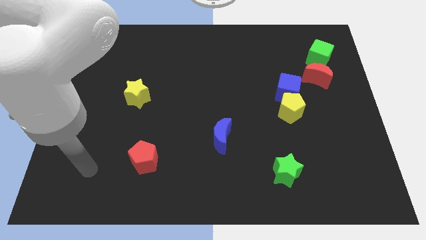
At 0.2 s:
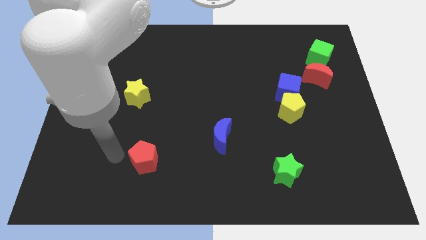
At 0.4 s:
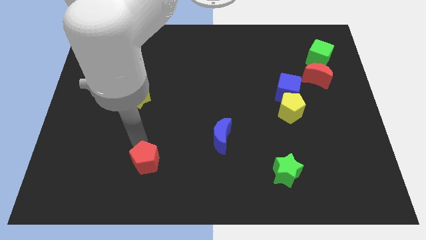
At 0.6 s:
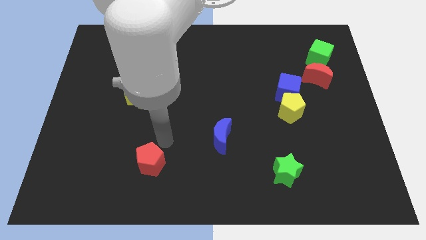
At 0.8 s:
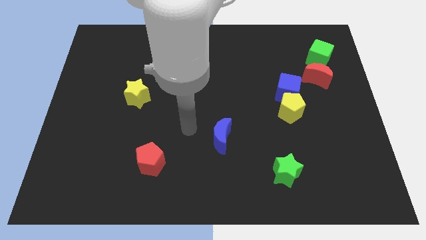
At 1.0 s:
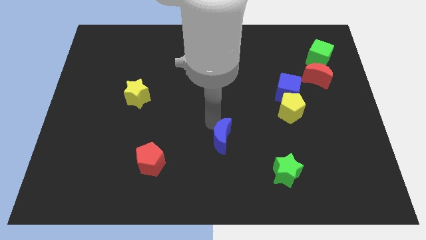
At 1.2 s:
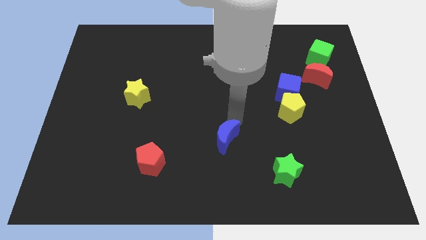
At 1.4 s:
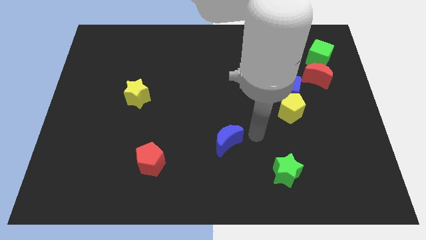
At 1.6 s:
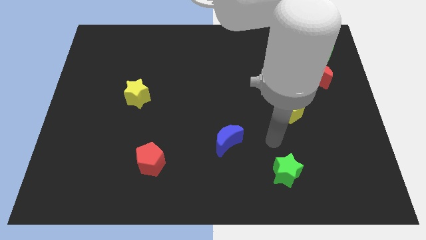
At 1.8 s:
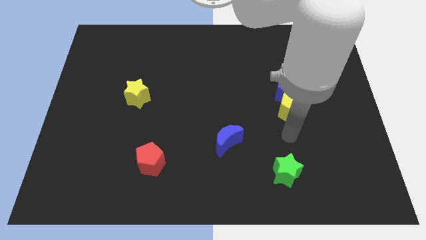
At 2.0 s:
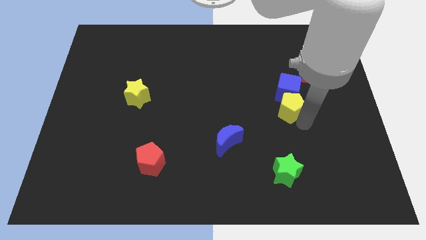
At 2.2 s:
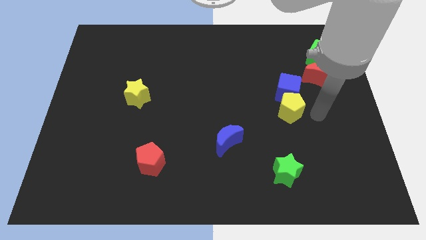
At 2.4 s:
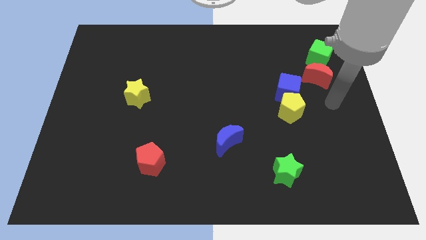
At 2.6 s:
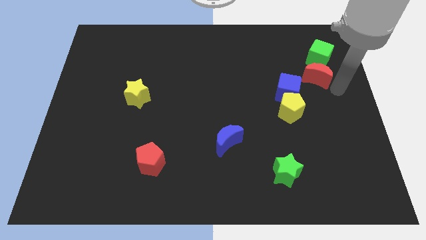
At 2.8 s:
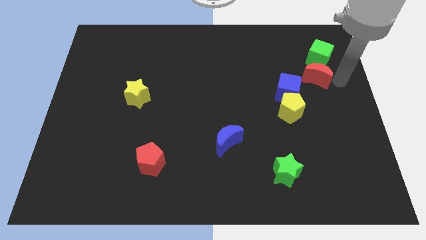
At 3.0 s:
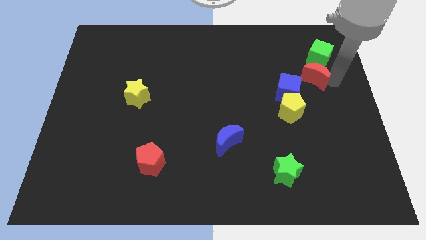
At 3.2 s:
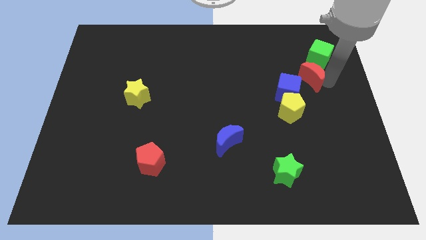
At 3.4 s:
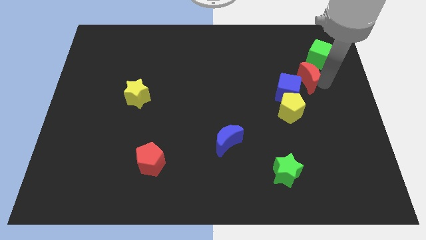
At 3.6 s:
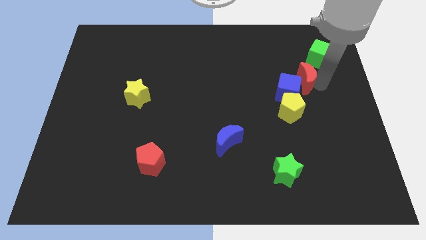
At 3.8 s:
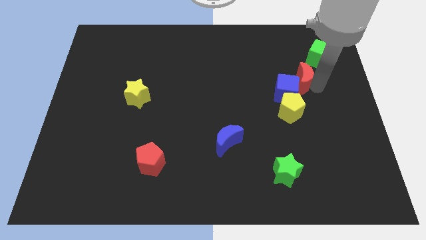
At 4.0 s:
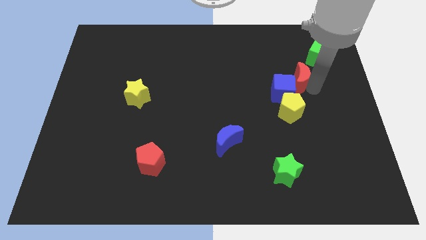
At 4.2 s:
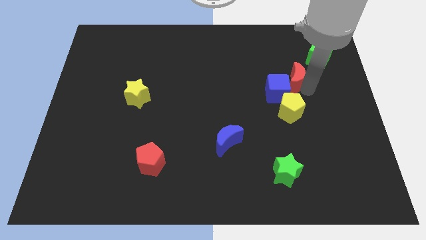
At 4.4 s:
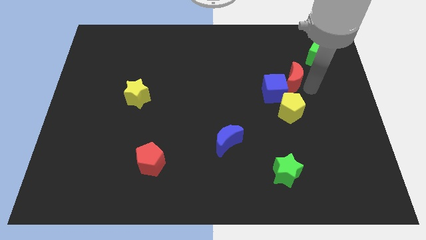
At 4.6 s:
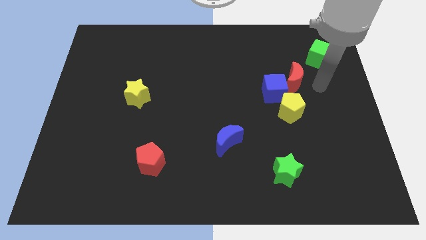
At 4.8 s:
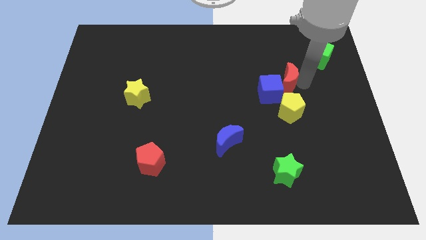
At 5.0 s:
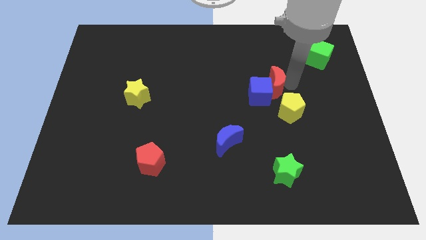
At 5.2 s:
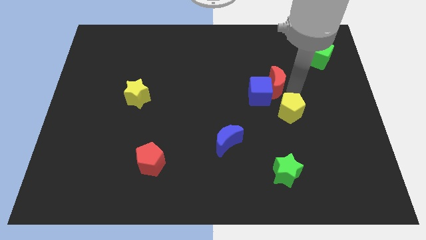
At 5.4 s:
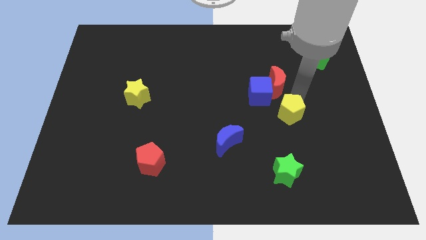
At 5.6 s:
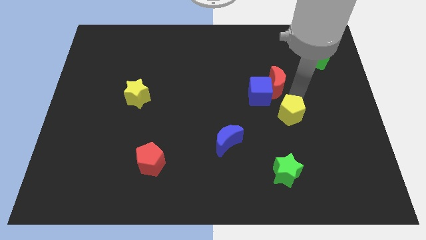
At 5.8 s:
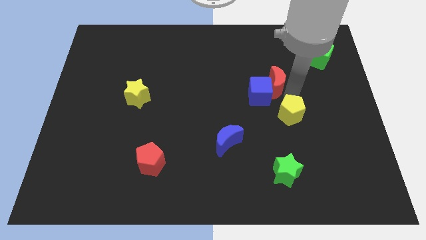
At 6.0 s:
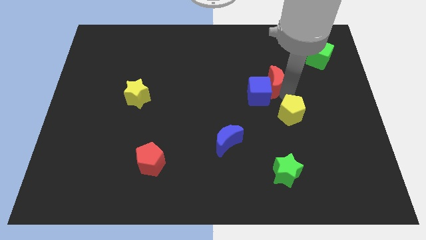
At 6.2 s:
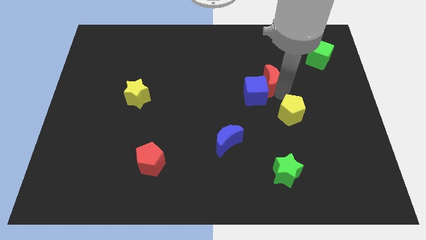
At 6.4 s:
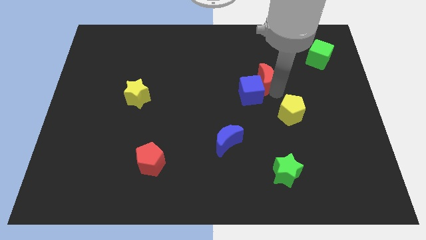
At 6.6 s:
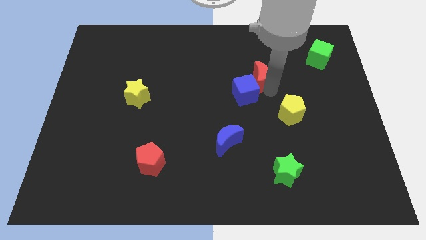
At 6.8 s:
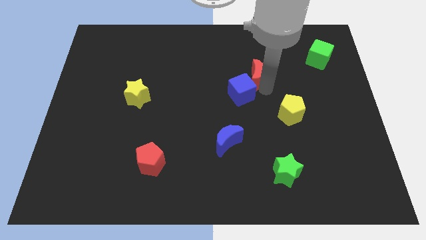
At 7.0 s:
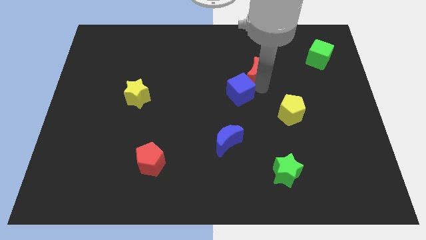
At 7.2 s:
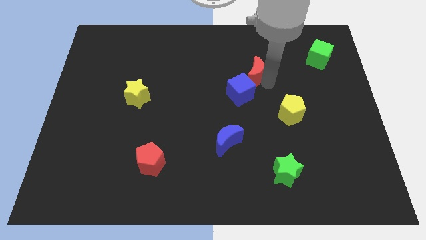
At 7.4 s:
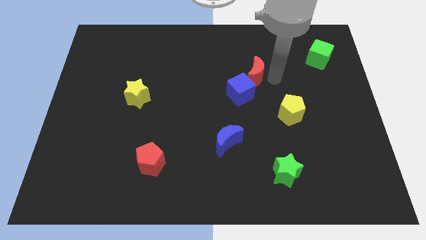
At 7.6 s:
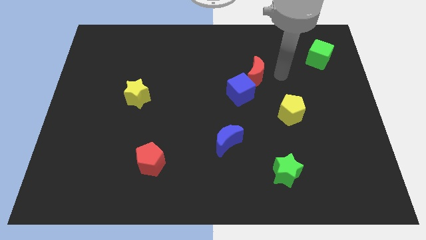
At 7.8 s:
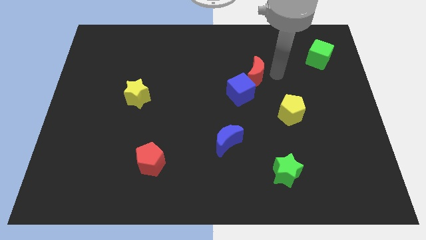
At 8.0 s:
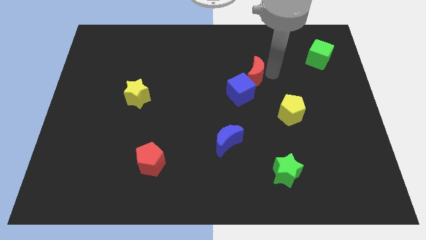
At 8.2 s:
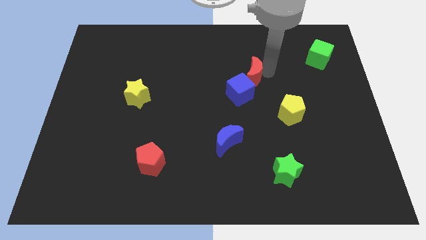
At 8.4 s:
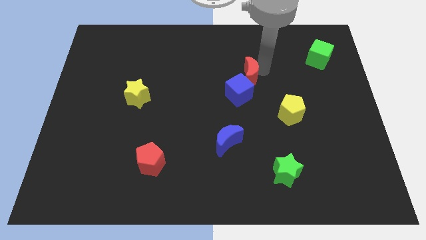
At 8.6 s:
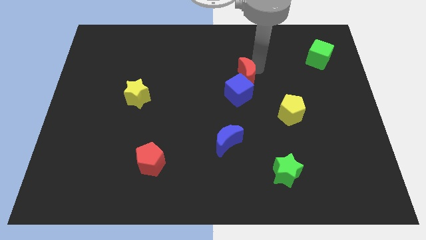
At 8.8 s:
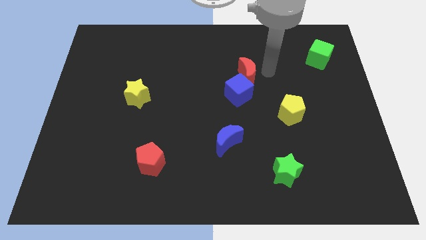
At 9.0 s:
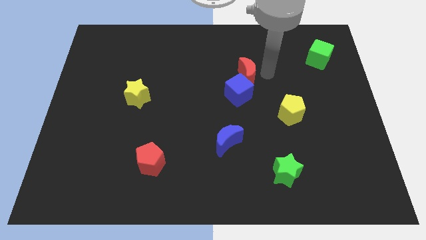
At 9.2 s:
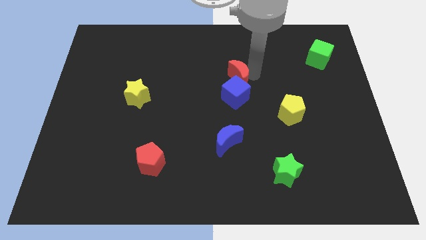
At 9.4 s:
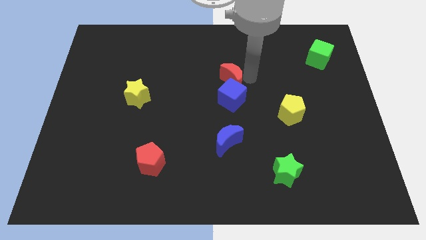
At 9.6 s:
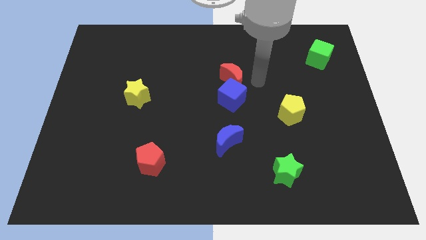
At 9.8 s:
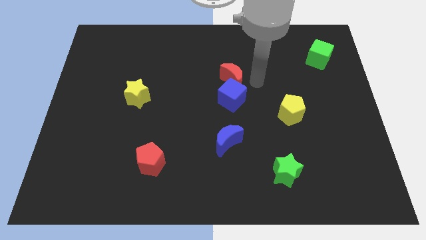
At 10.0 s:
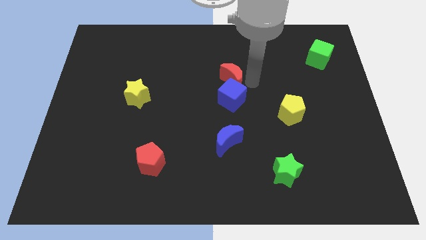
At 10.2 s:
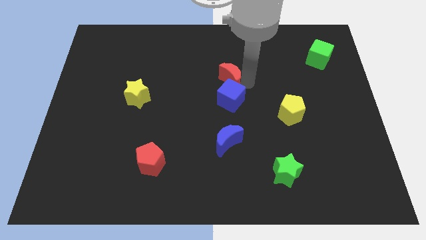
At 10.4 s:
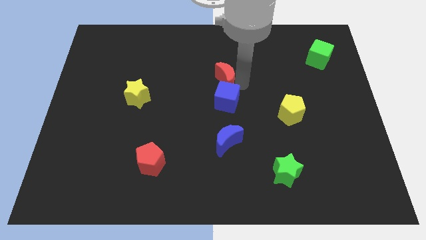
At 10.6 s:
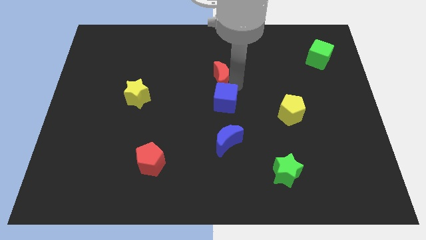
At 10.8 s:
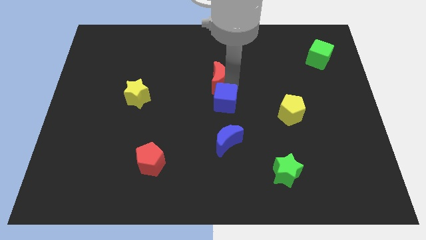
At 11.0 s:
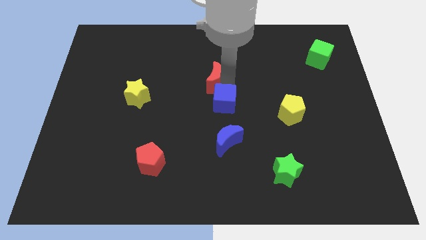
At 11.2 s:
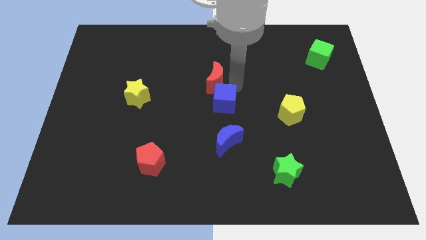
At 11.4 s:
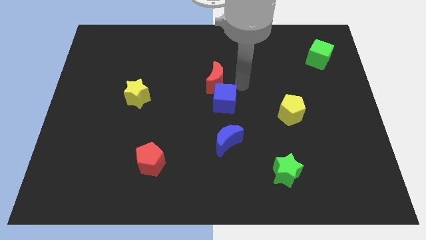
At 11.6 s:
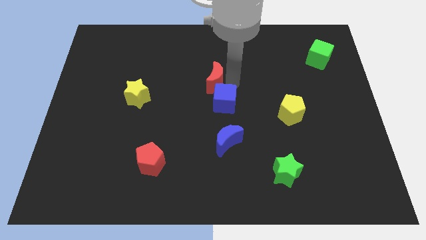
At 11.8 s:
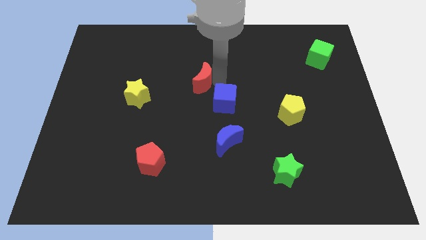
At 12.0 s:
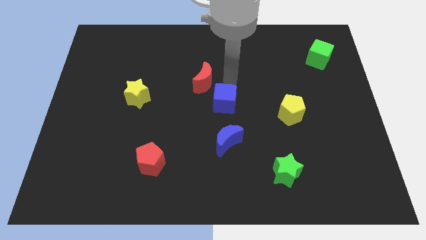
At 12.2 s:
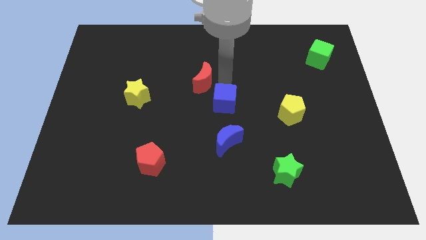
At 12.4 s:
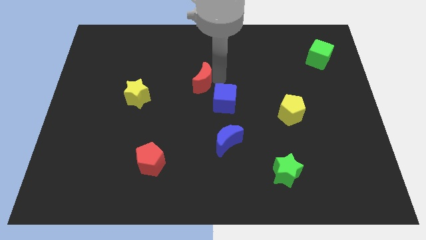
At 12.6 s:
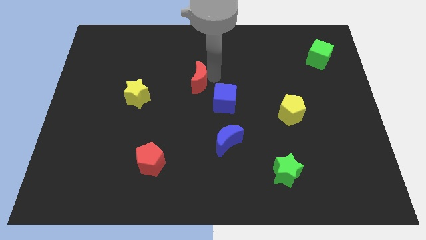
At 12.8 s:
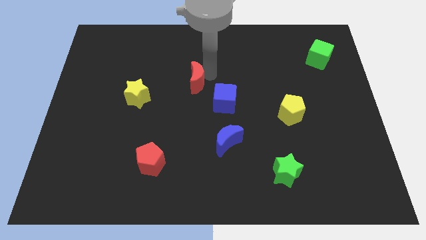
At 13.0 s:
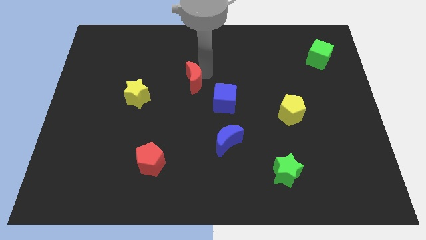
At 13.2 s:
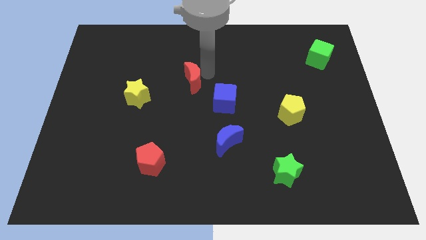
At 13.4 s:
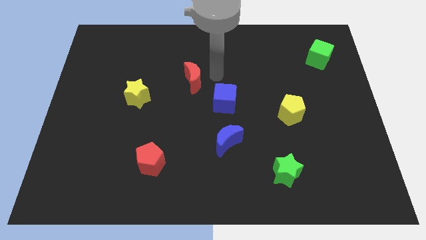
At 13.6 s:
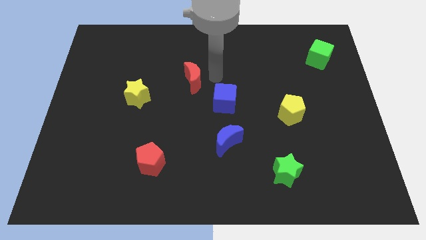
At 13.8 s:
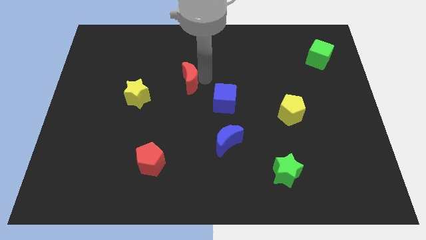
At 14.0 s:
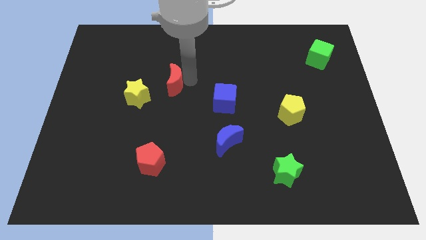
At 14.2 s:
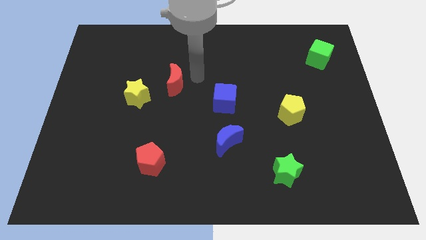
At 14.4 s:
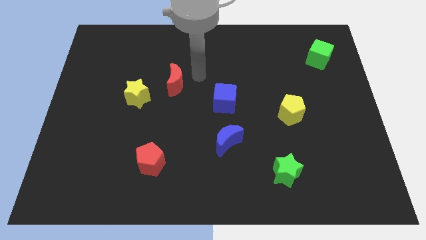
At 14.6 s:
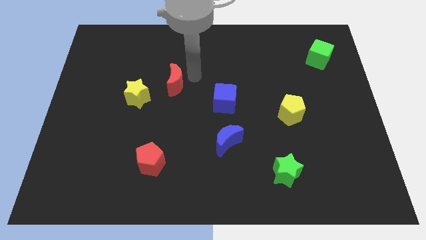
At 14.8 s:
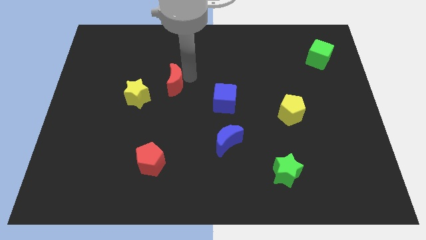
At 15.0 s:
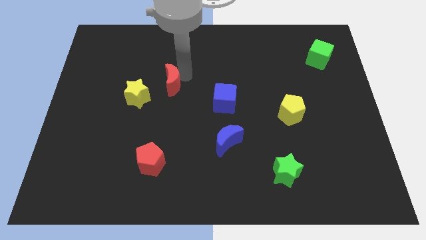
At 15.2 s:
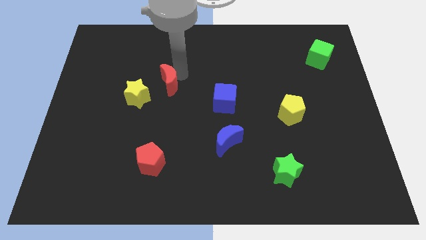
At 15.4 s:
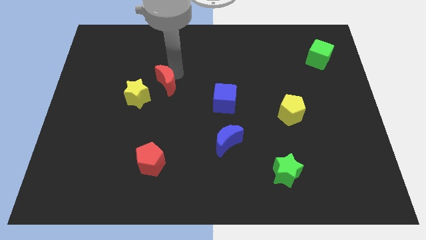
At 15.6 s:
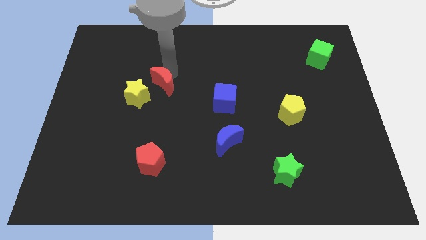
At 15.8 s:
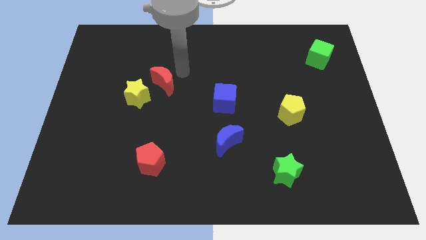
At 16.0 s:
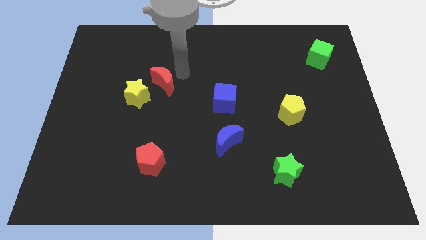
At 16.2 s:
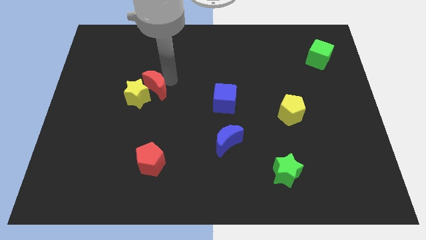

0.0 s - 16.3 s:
slide the red moon close to the yellow star
